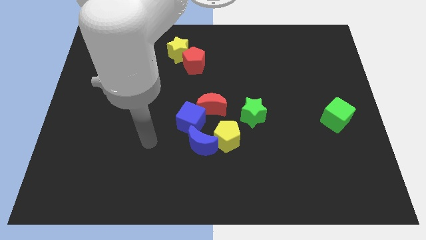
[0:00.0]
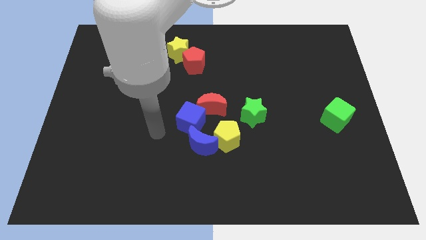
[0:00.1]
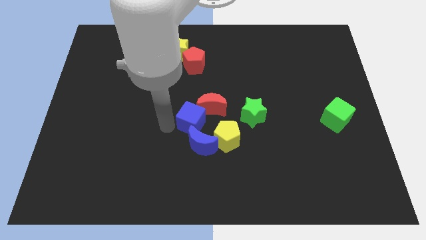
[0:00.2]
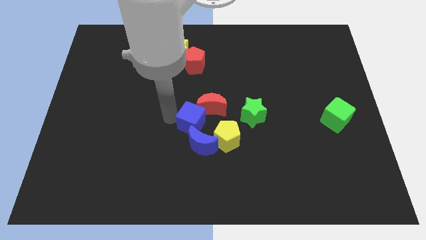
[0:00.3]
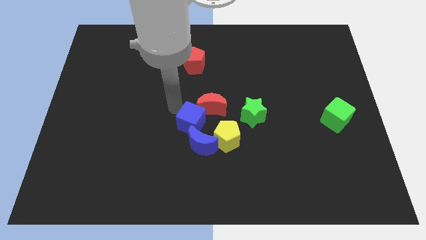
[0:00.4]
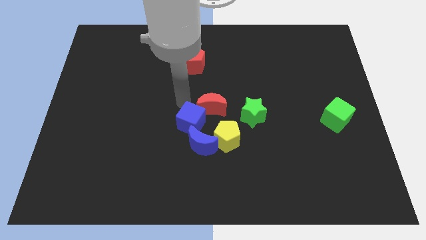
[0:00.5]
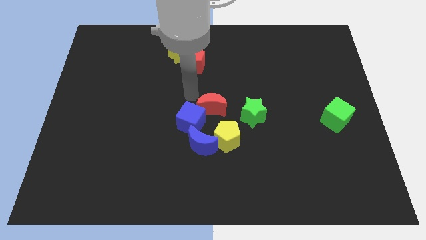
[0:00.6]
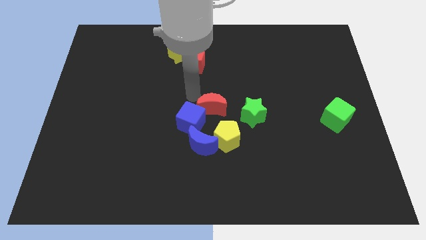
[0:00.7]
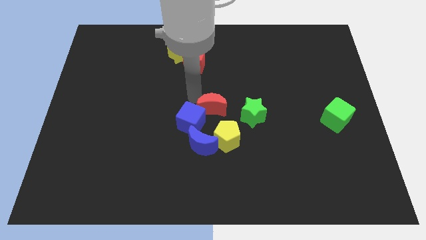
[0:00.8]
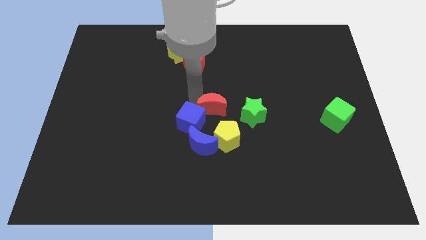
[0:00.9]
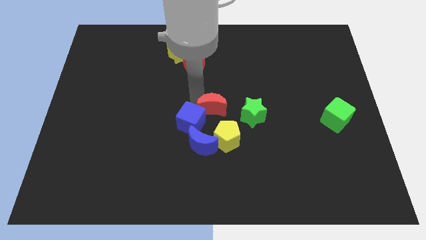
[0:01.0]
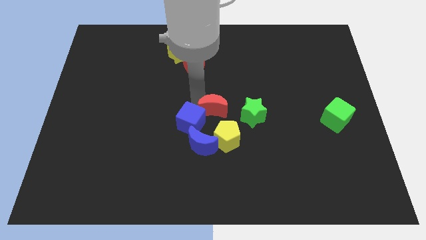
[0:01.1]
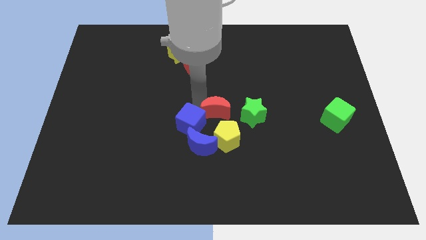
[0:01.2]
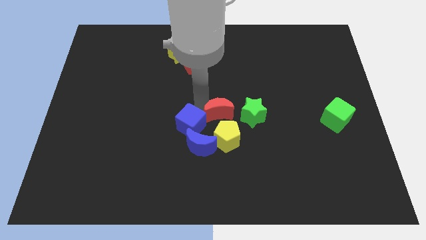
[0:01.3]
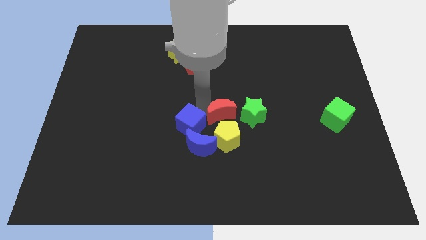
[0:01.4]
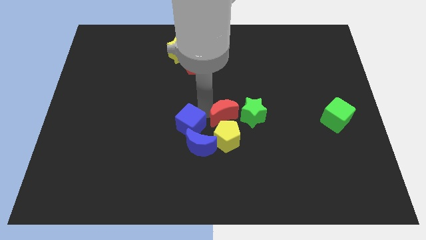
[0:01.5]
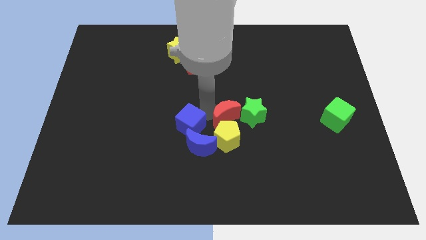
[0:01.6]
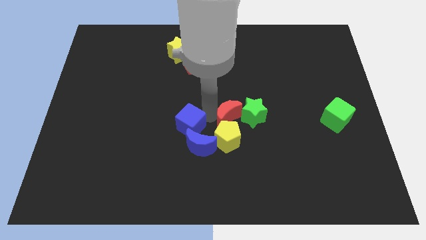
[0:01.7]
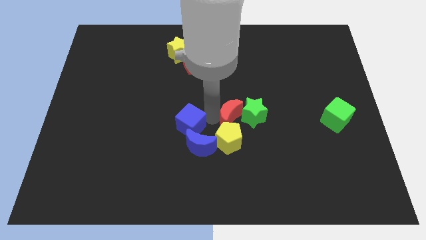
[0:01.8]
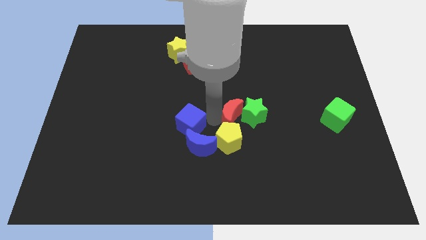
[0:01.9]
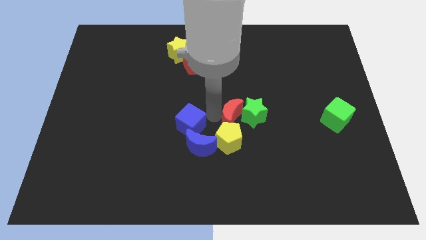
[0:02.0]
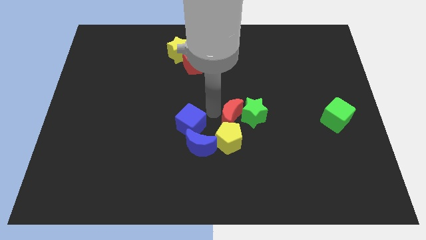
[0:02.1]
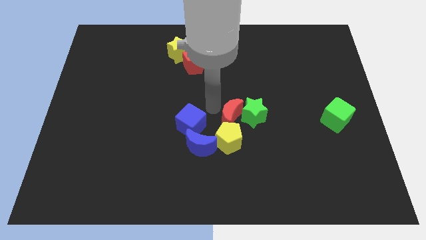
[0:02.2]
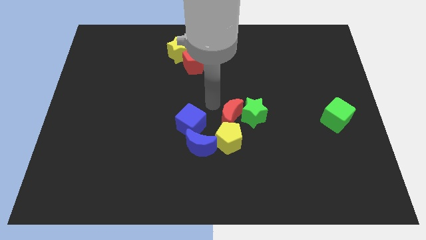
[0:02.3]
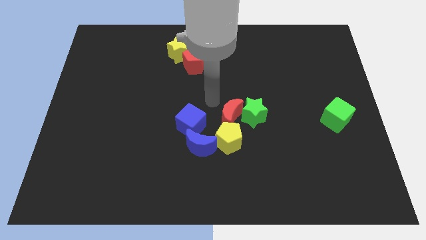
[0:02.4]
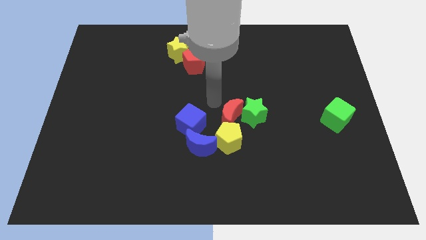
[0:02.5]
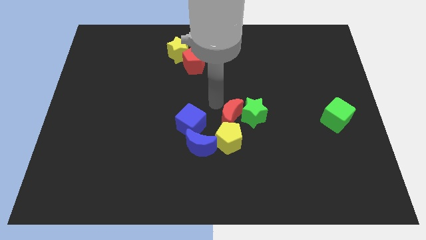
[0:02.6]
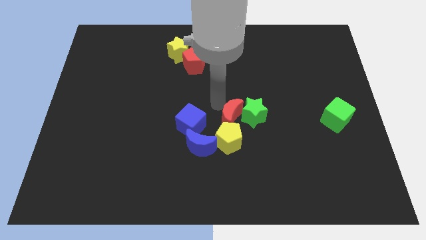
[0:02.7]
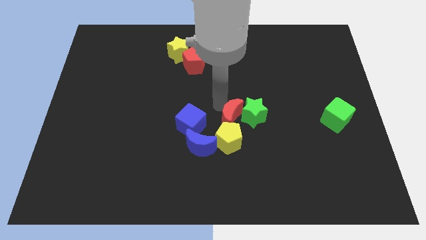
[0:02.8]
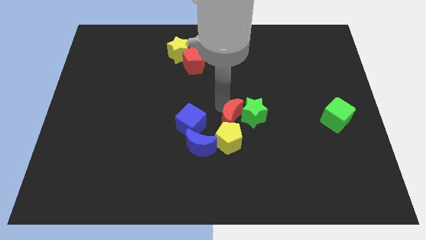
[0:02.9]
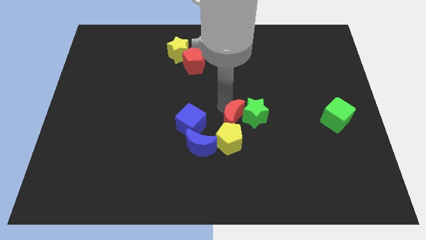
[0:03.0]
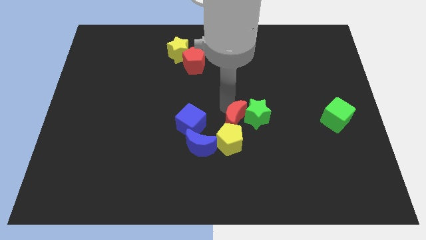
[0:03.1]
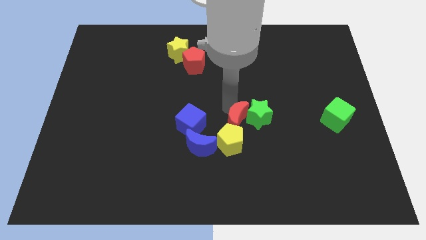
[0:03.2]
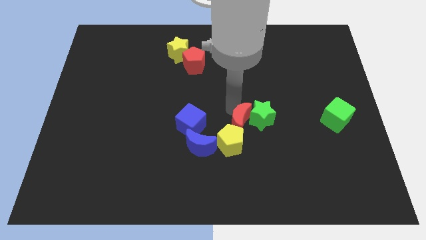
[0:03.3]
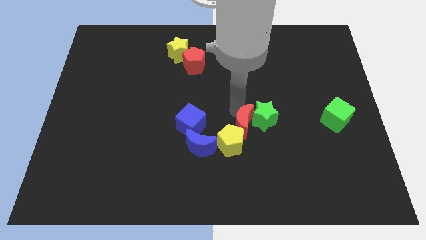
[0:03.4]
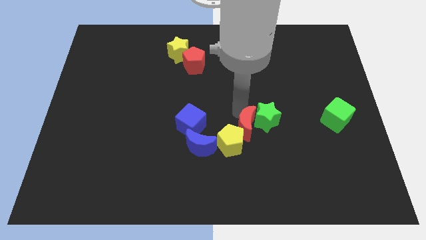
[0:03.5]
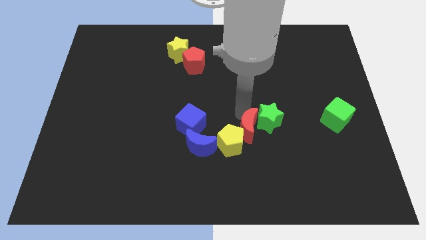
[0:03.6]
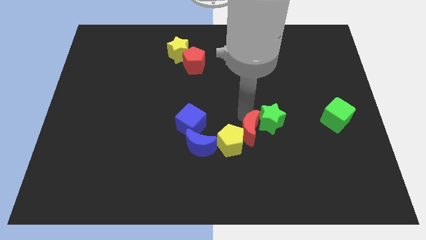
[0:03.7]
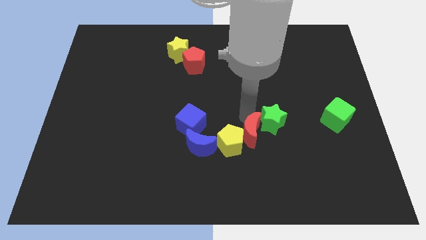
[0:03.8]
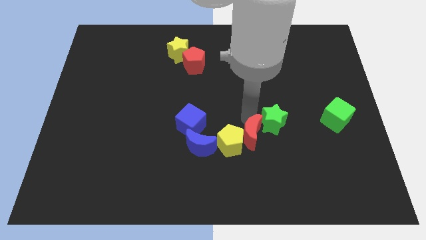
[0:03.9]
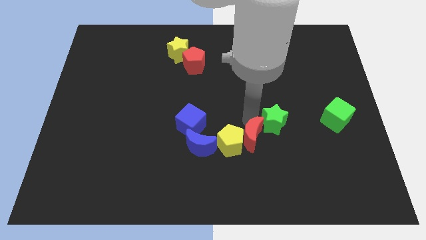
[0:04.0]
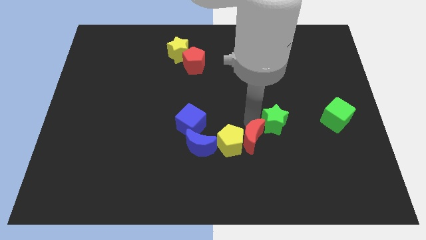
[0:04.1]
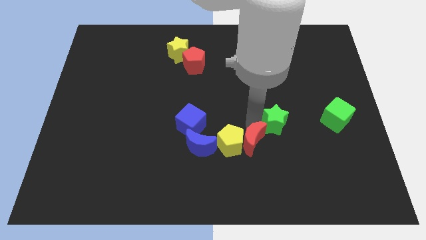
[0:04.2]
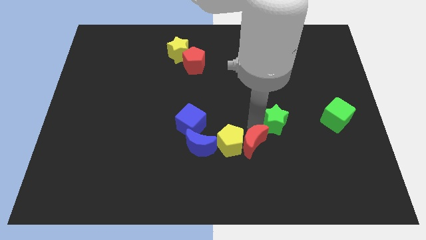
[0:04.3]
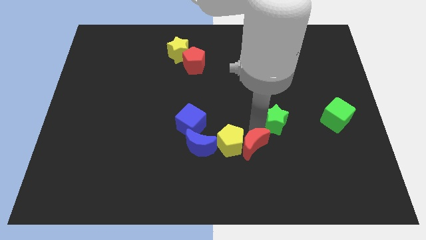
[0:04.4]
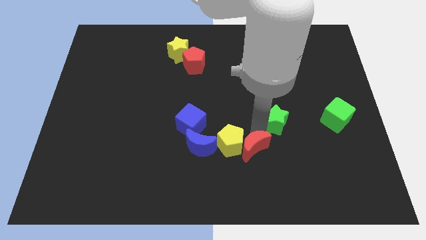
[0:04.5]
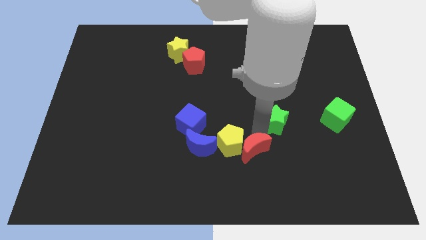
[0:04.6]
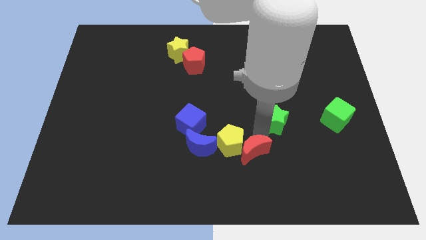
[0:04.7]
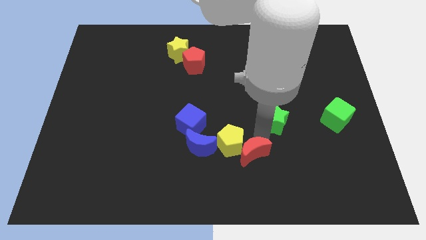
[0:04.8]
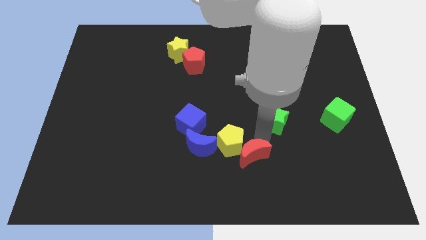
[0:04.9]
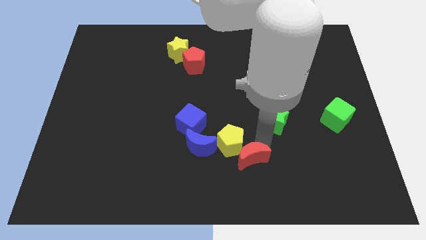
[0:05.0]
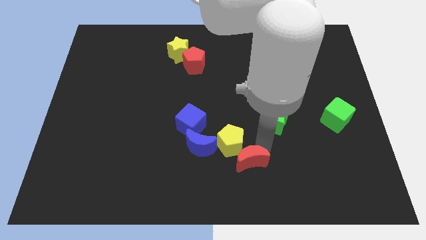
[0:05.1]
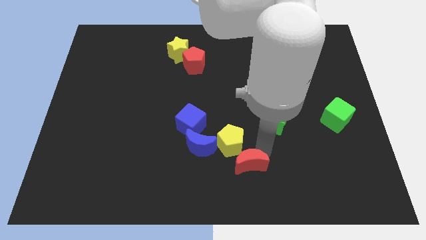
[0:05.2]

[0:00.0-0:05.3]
put the red moon to the bottom side

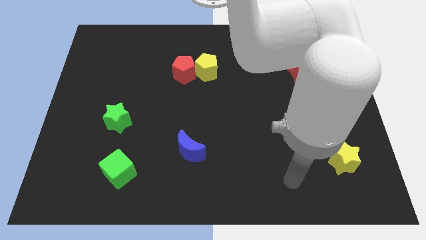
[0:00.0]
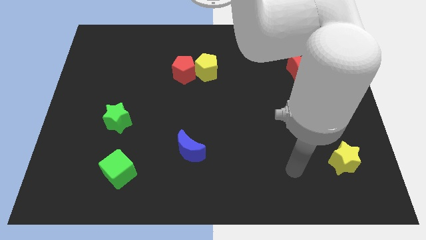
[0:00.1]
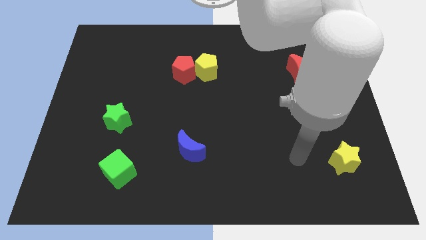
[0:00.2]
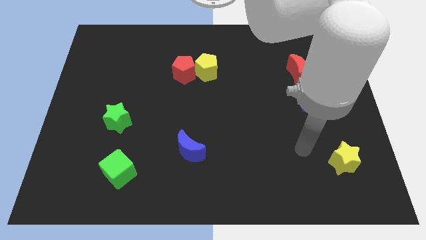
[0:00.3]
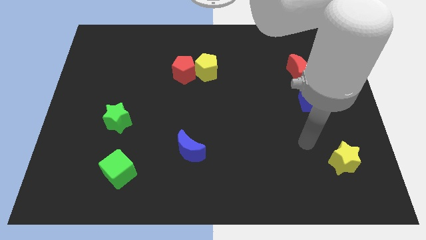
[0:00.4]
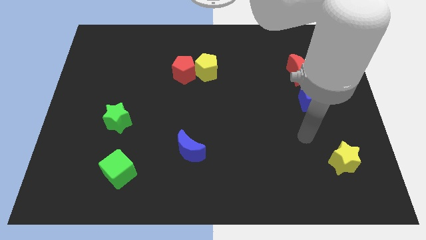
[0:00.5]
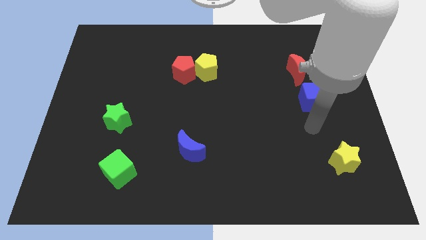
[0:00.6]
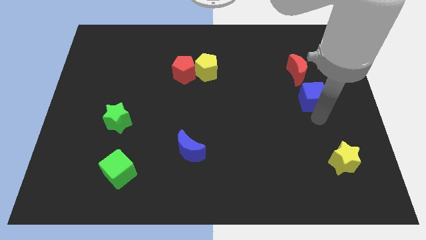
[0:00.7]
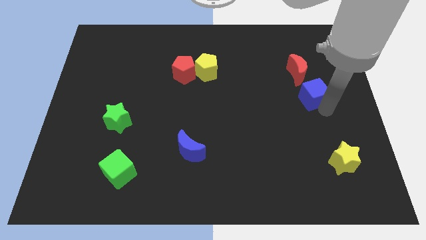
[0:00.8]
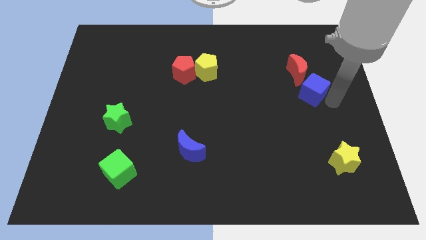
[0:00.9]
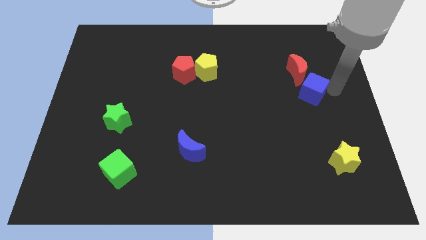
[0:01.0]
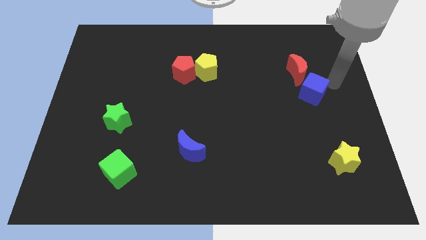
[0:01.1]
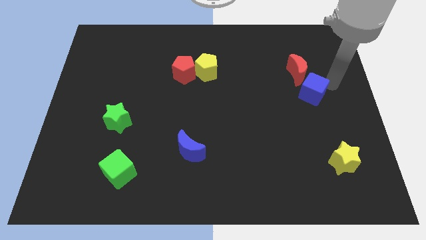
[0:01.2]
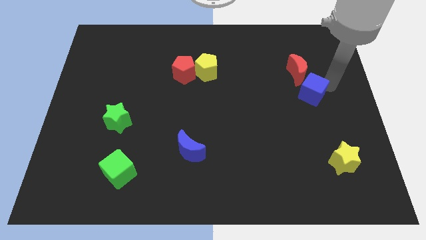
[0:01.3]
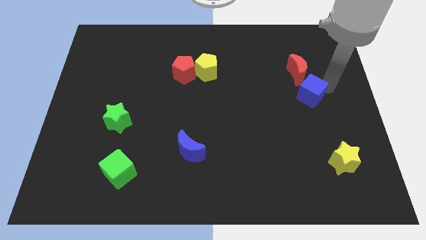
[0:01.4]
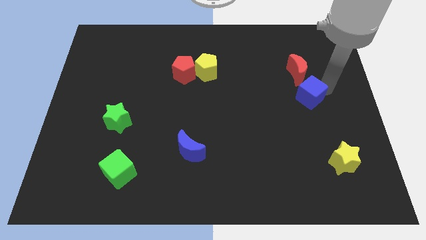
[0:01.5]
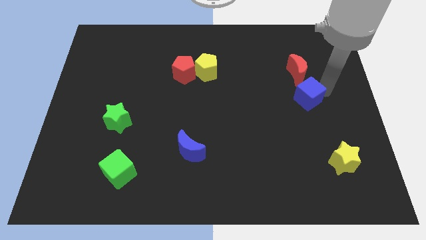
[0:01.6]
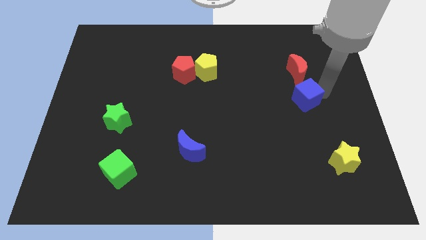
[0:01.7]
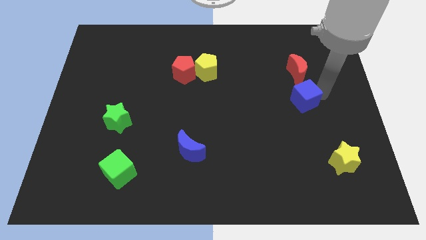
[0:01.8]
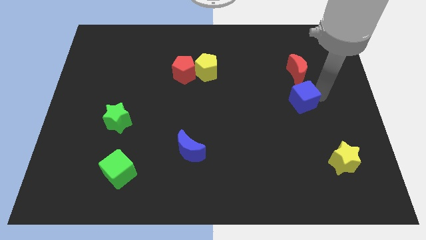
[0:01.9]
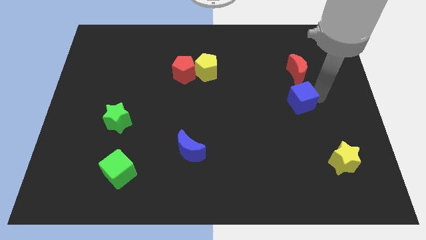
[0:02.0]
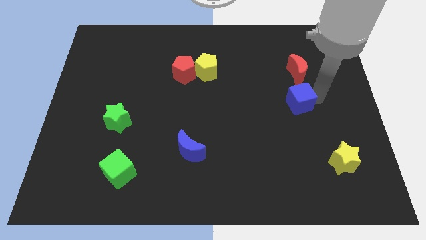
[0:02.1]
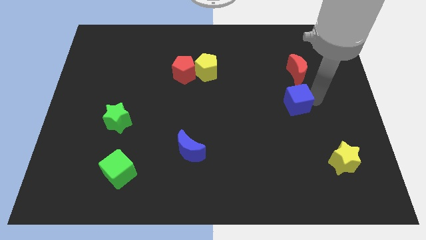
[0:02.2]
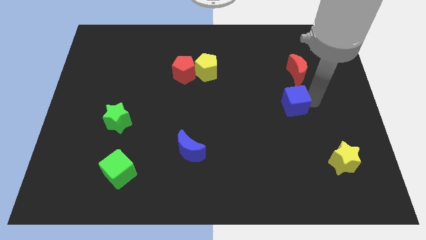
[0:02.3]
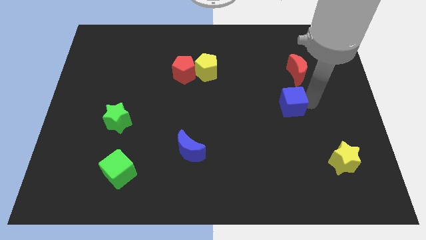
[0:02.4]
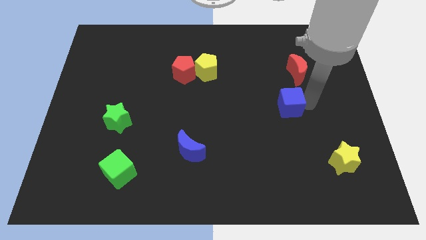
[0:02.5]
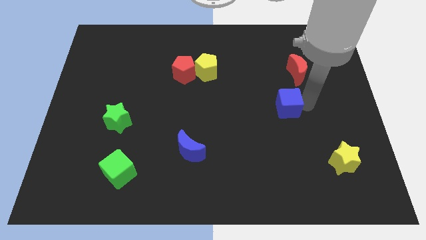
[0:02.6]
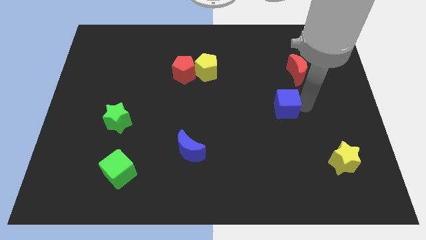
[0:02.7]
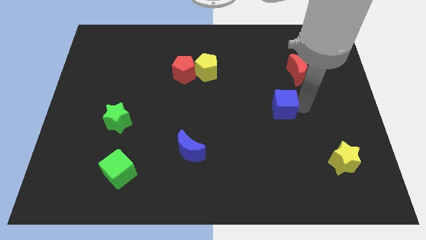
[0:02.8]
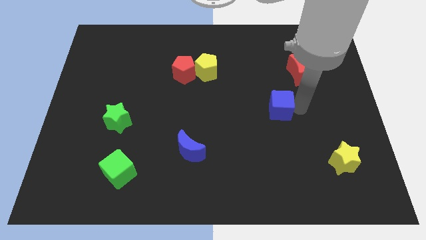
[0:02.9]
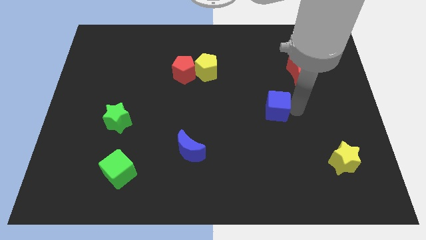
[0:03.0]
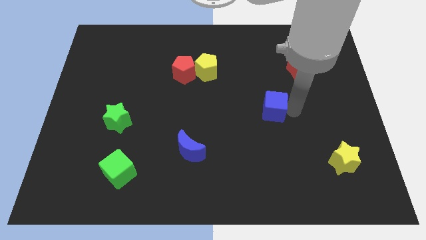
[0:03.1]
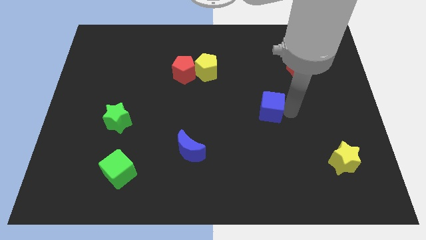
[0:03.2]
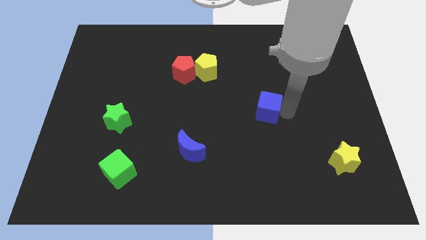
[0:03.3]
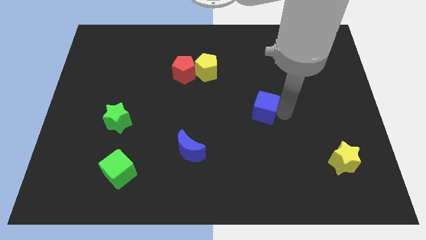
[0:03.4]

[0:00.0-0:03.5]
push the blue cube to the middle of the board
